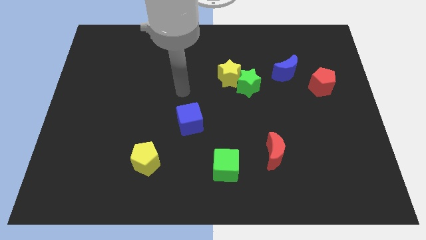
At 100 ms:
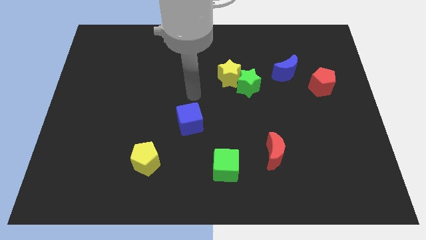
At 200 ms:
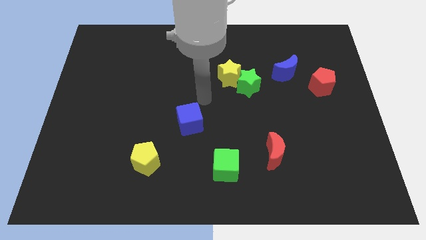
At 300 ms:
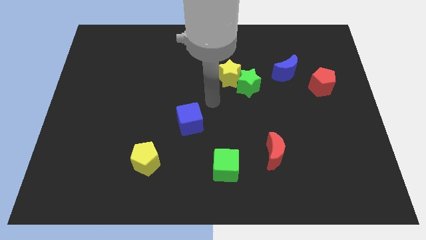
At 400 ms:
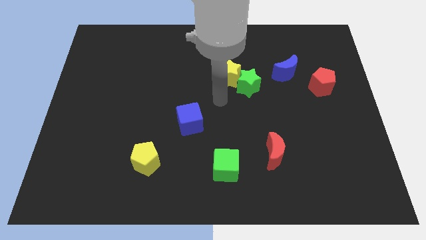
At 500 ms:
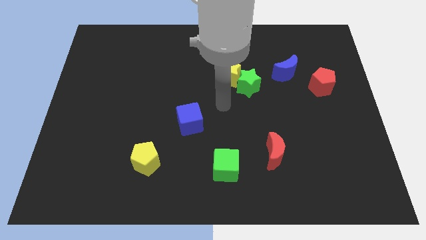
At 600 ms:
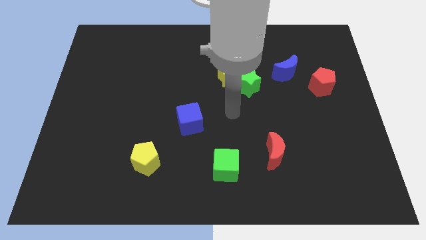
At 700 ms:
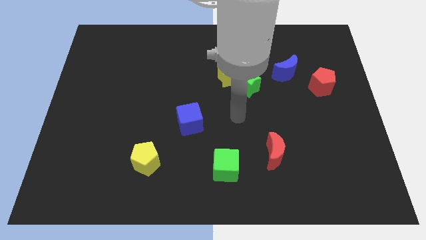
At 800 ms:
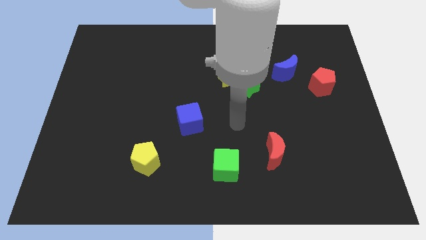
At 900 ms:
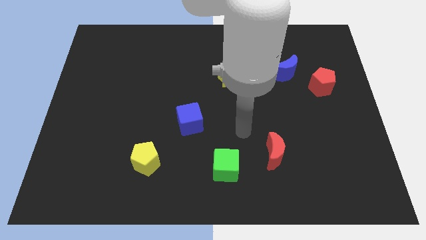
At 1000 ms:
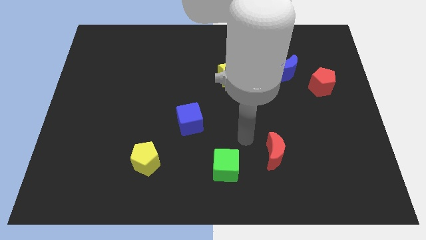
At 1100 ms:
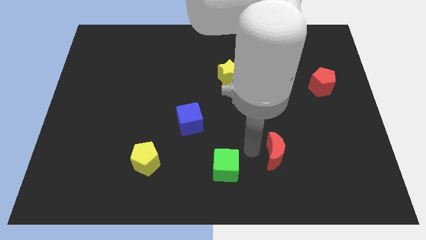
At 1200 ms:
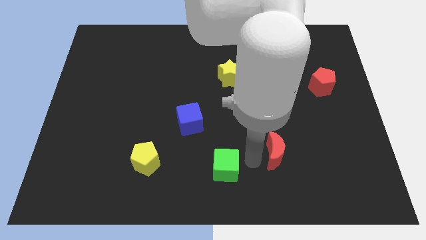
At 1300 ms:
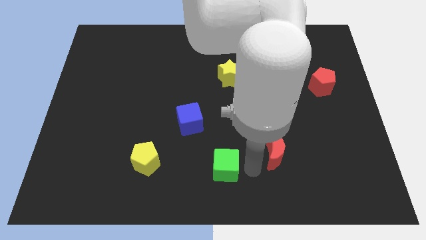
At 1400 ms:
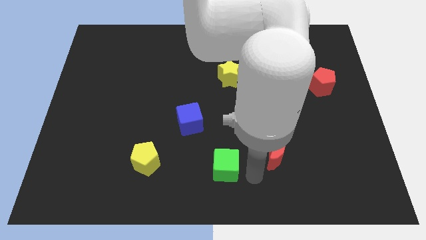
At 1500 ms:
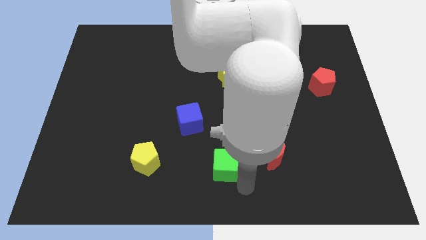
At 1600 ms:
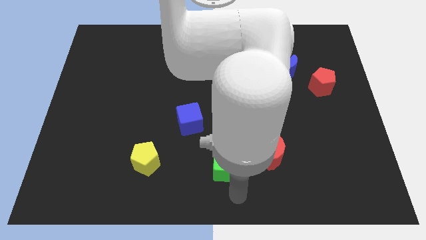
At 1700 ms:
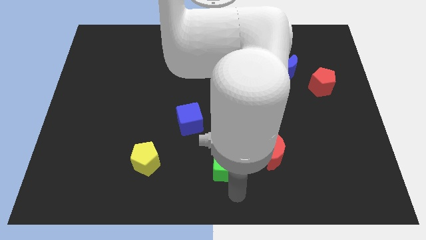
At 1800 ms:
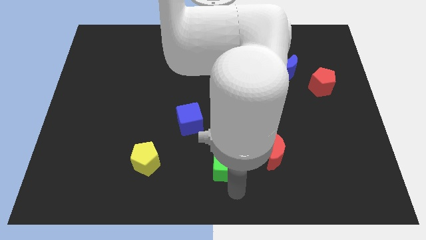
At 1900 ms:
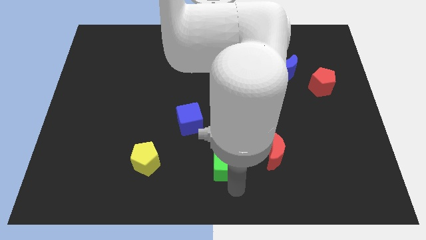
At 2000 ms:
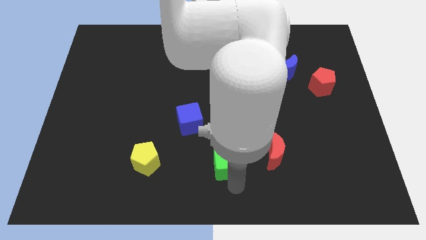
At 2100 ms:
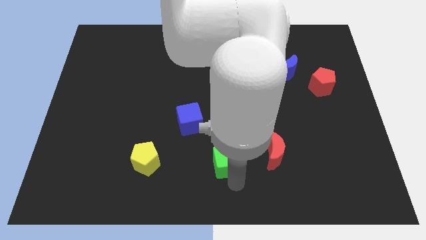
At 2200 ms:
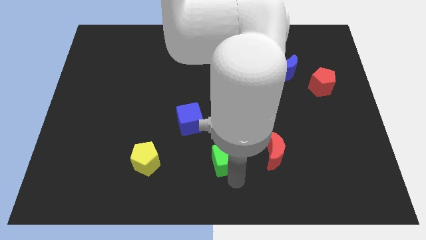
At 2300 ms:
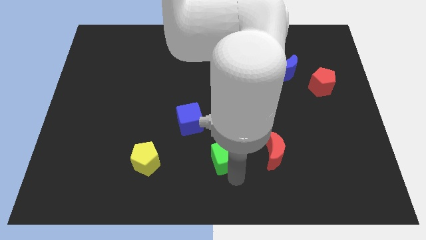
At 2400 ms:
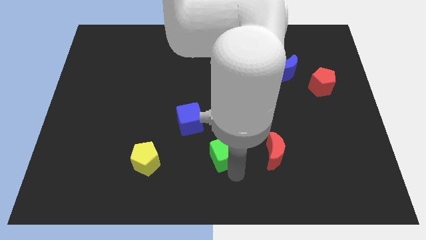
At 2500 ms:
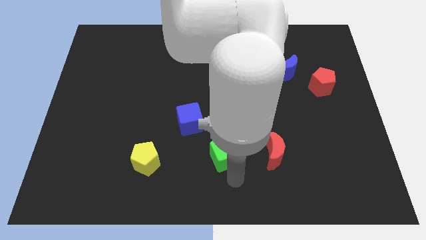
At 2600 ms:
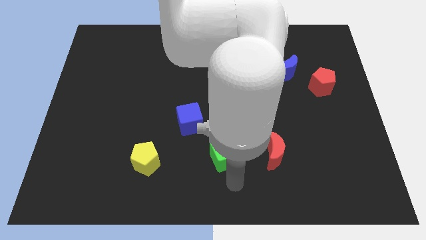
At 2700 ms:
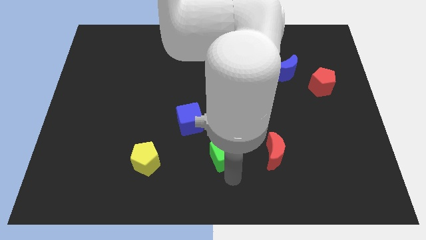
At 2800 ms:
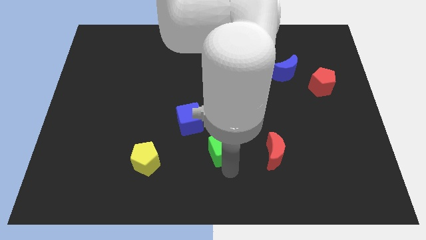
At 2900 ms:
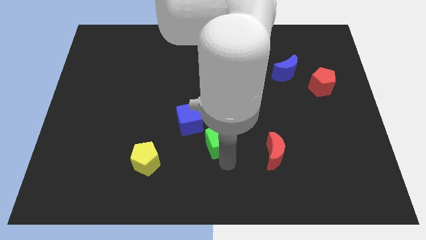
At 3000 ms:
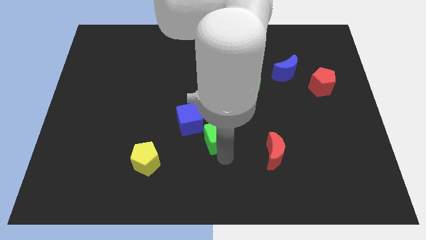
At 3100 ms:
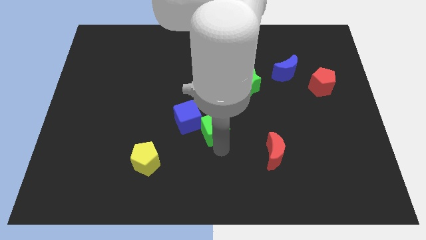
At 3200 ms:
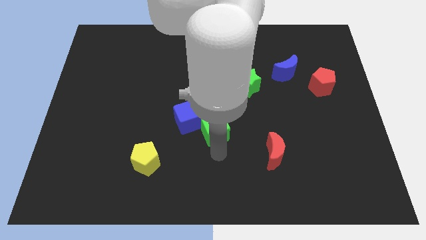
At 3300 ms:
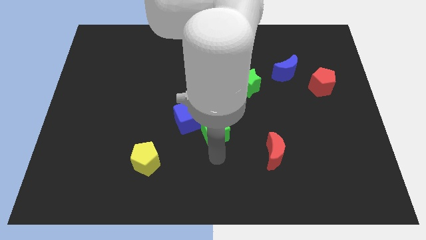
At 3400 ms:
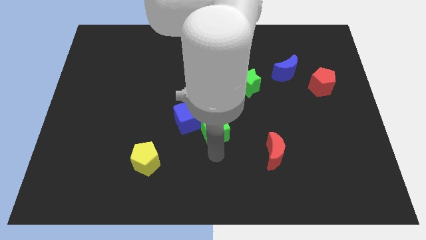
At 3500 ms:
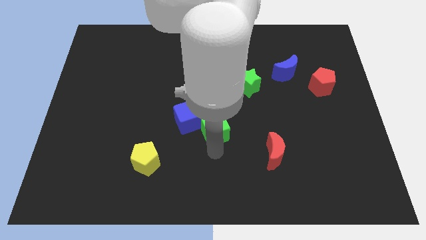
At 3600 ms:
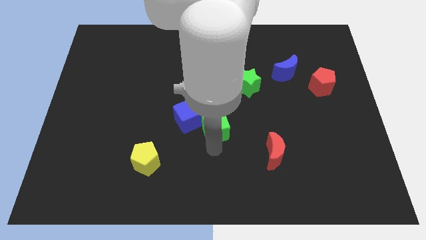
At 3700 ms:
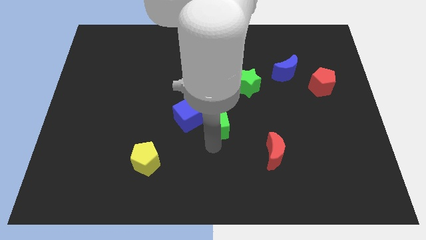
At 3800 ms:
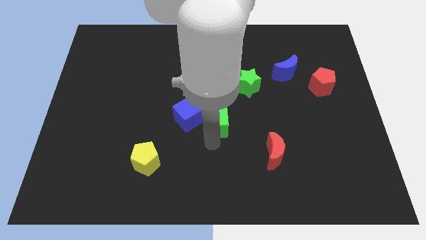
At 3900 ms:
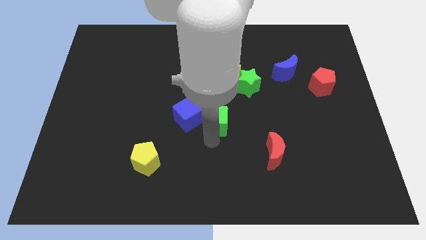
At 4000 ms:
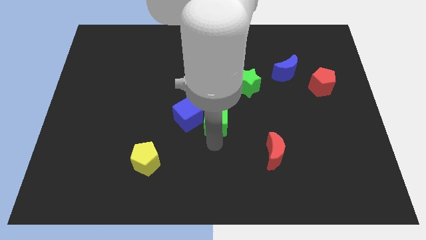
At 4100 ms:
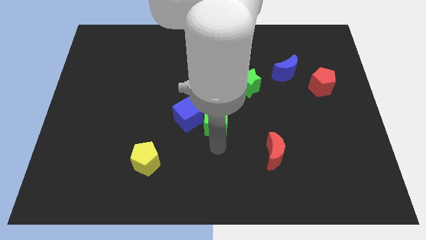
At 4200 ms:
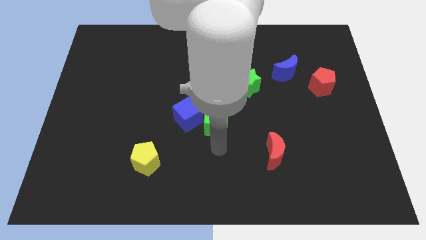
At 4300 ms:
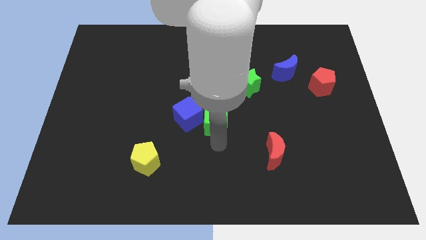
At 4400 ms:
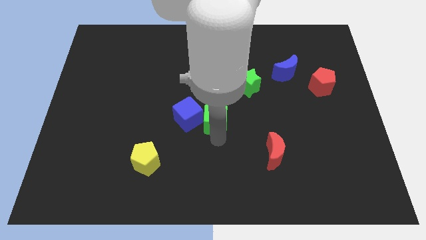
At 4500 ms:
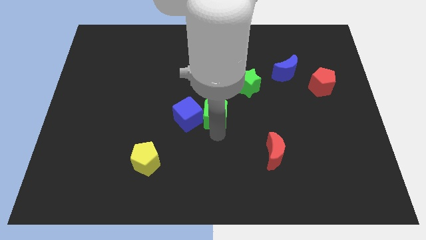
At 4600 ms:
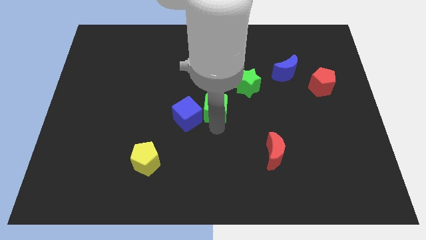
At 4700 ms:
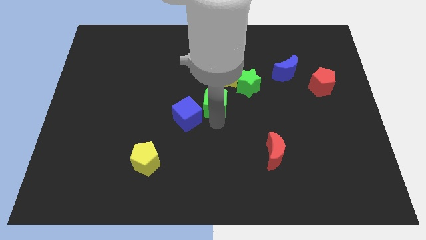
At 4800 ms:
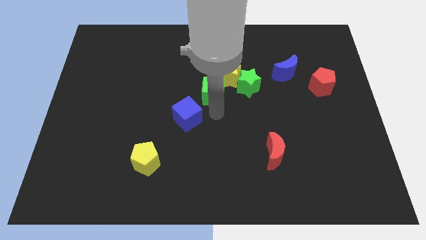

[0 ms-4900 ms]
slide the green cube upwards

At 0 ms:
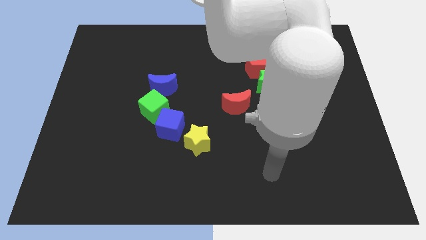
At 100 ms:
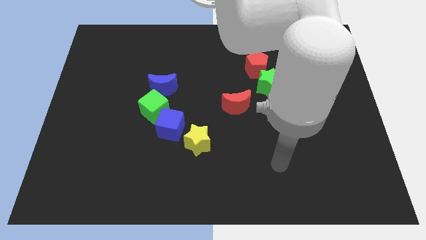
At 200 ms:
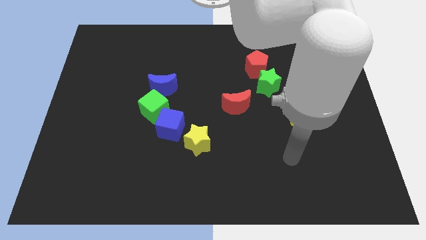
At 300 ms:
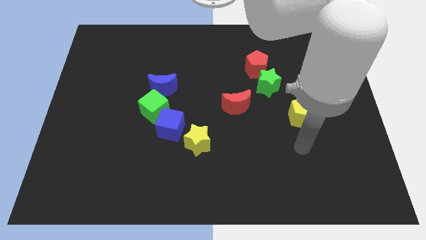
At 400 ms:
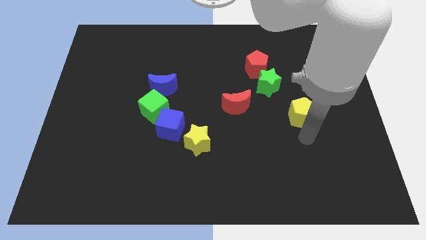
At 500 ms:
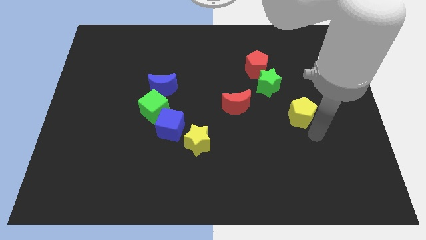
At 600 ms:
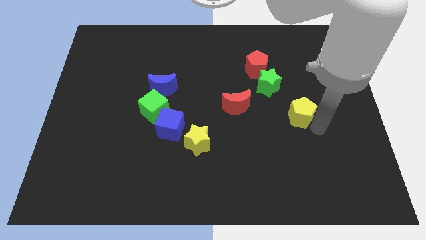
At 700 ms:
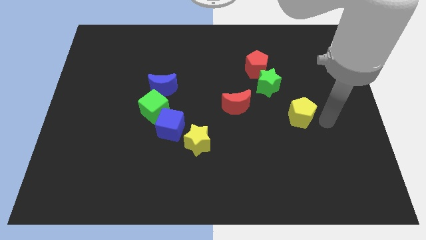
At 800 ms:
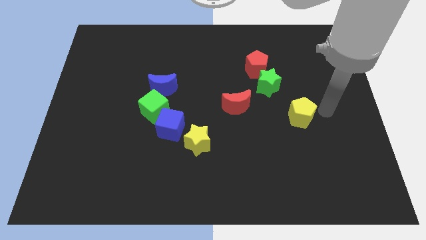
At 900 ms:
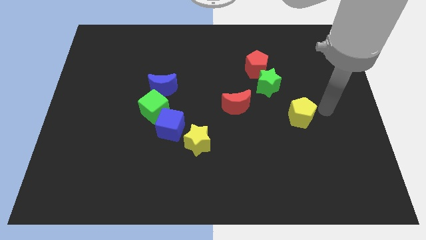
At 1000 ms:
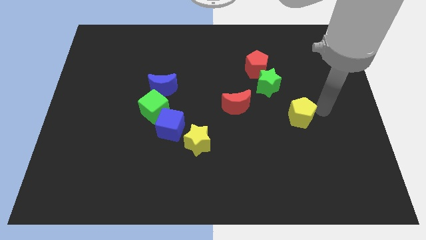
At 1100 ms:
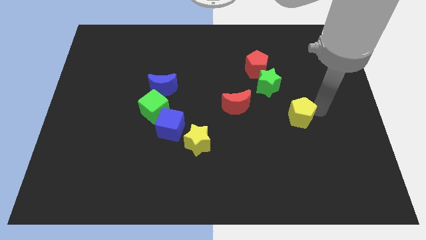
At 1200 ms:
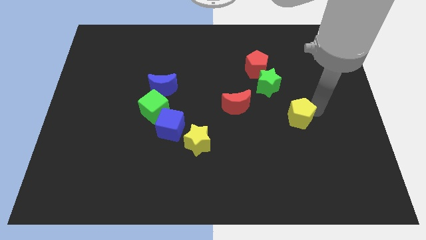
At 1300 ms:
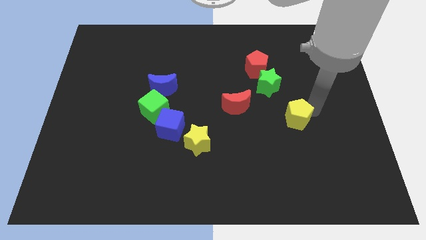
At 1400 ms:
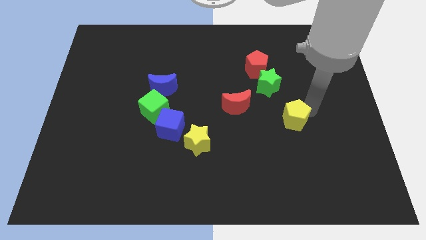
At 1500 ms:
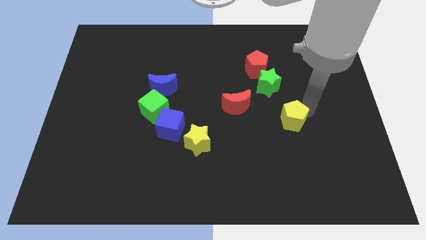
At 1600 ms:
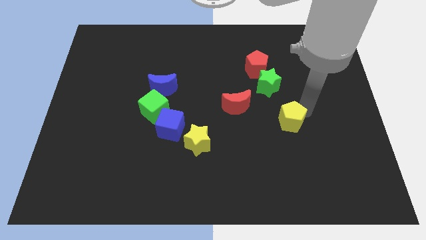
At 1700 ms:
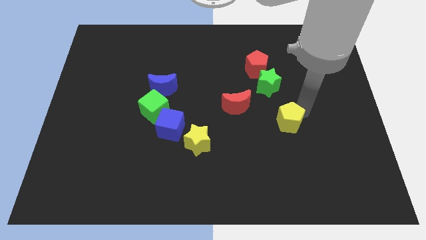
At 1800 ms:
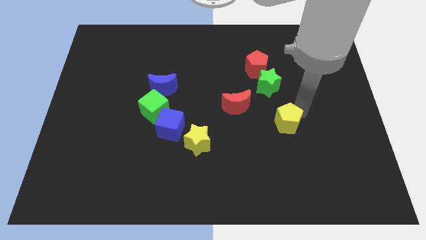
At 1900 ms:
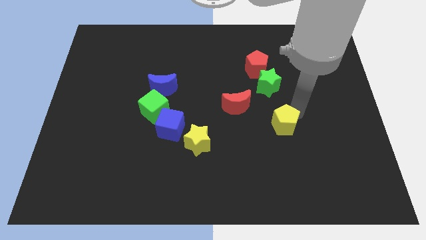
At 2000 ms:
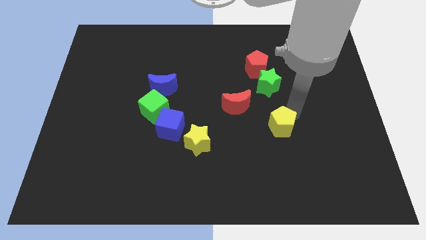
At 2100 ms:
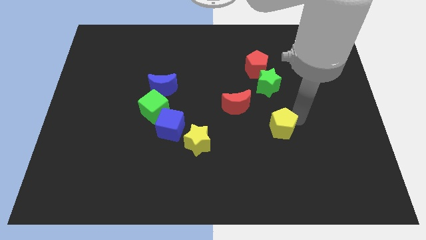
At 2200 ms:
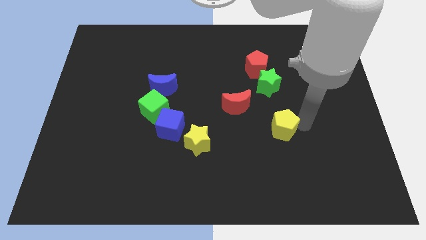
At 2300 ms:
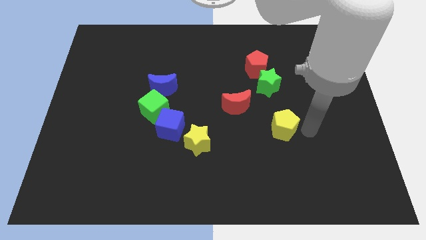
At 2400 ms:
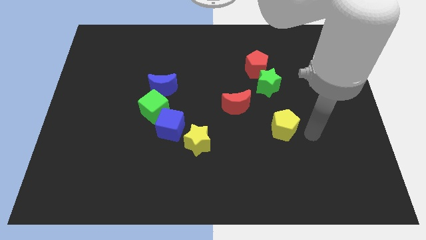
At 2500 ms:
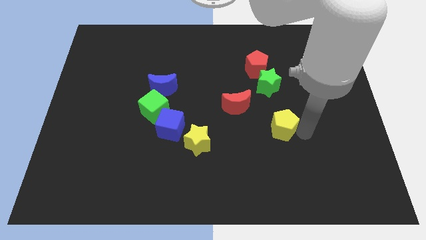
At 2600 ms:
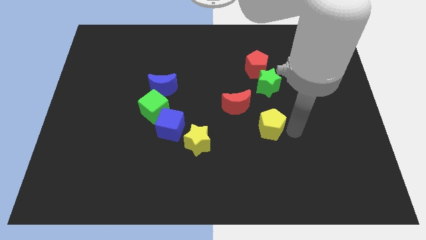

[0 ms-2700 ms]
slightly move the yellow pentagon to the left

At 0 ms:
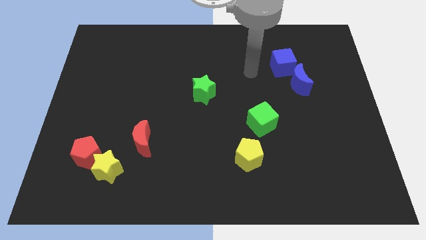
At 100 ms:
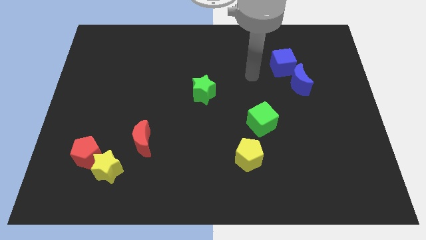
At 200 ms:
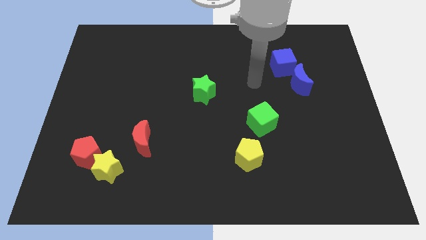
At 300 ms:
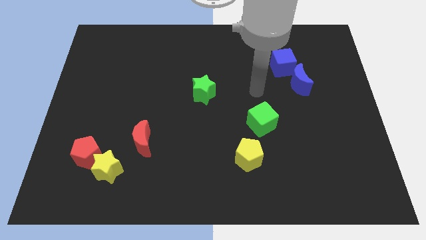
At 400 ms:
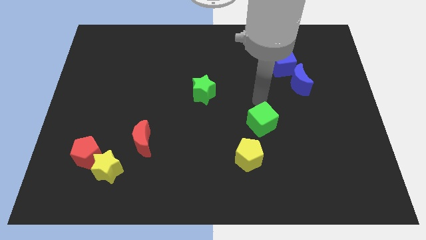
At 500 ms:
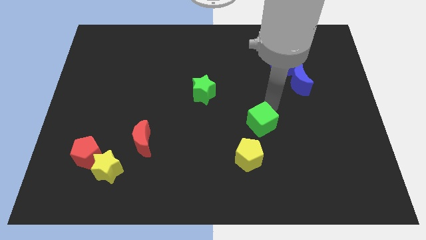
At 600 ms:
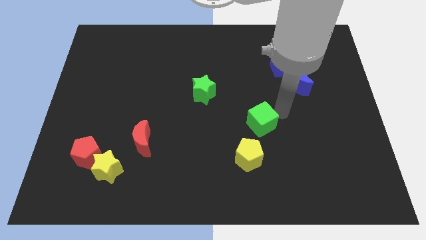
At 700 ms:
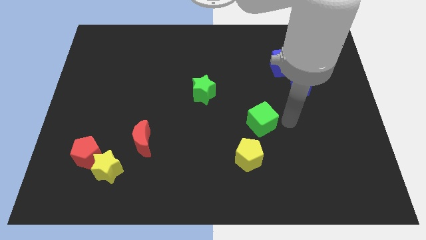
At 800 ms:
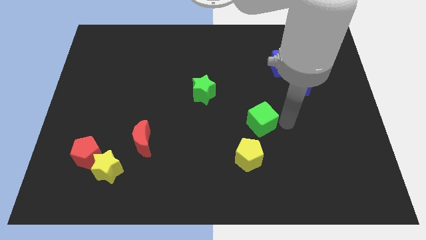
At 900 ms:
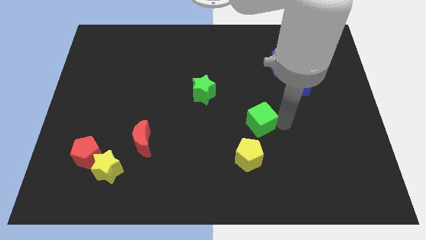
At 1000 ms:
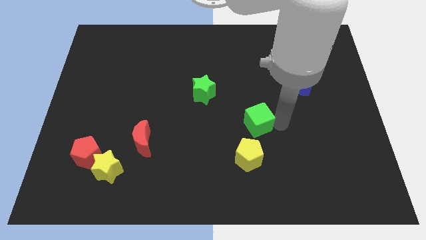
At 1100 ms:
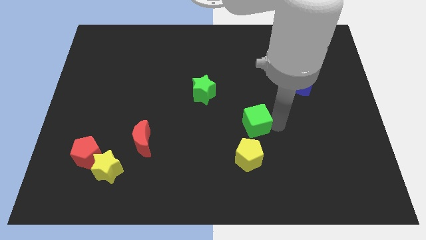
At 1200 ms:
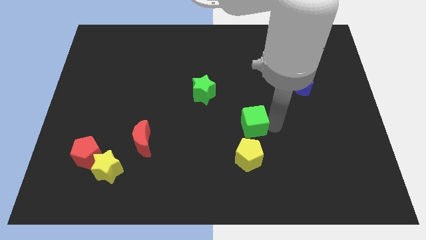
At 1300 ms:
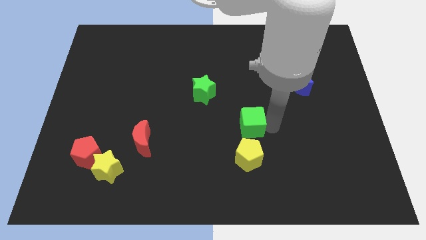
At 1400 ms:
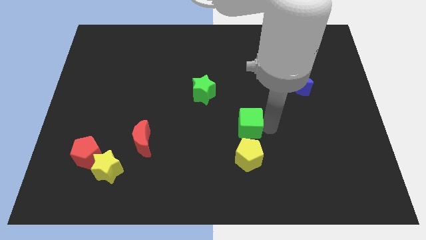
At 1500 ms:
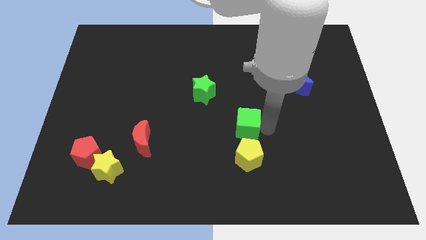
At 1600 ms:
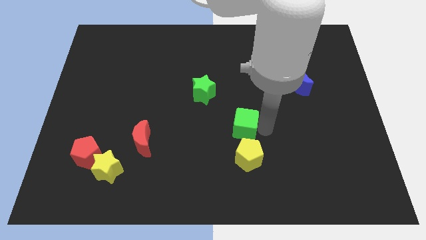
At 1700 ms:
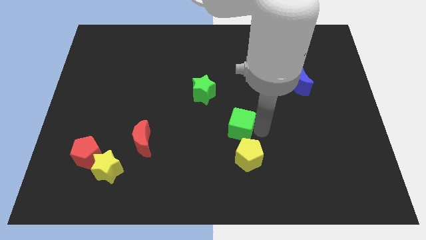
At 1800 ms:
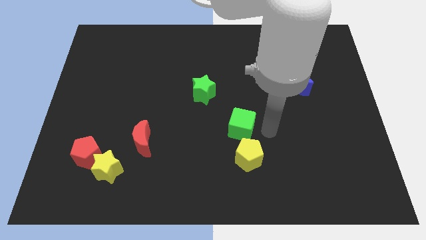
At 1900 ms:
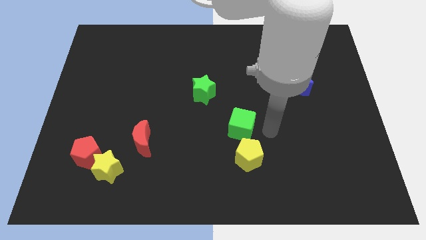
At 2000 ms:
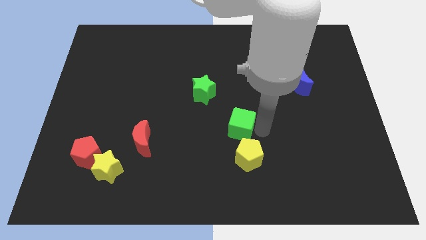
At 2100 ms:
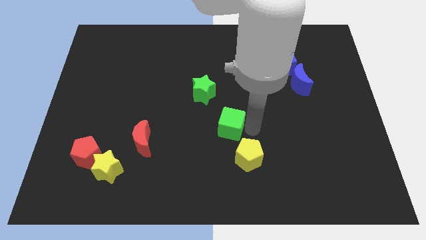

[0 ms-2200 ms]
slide the green cube slightly to the left
